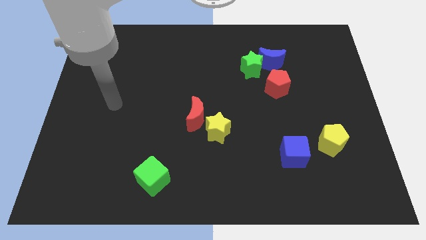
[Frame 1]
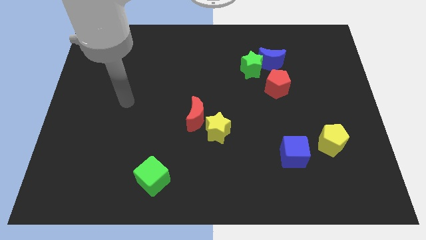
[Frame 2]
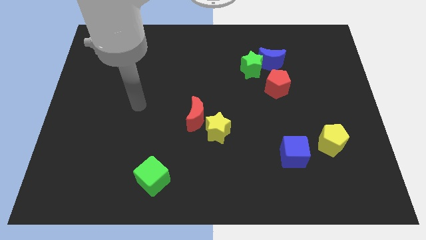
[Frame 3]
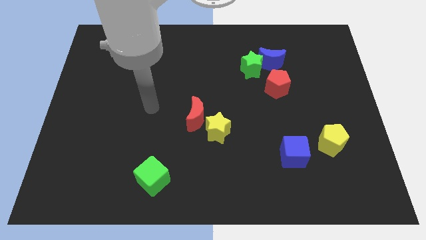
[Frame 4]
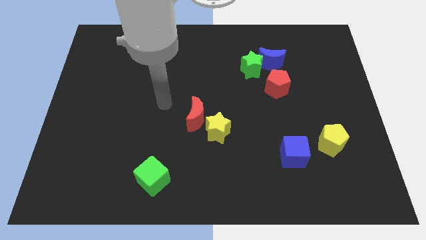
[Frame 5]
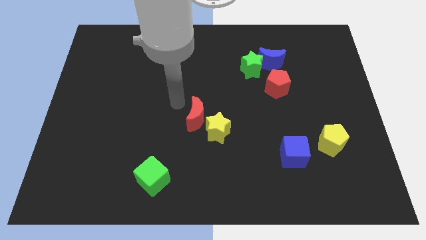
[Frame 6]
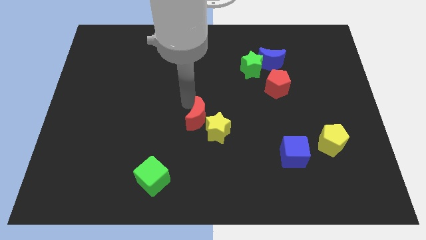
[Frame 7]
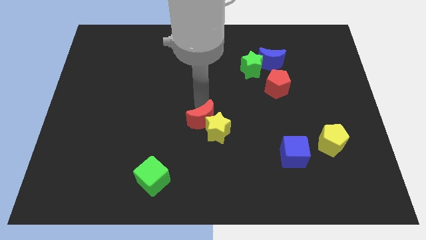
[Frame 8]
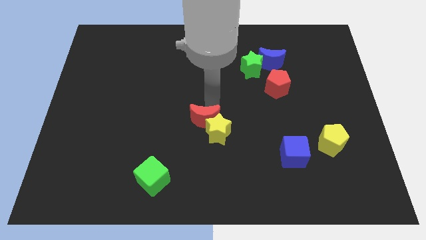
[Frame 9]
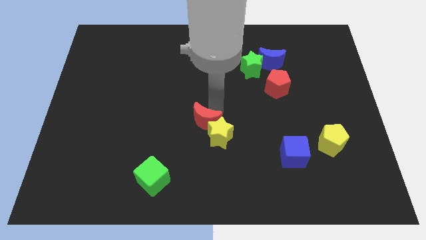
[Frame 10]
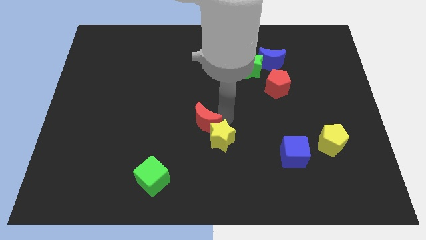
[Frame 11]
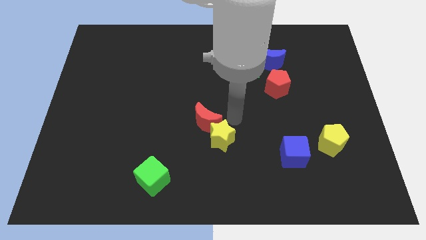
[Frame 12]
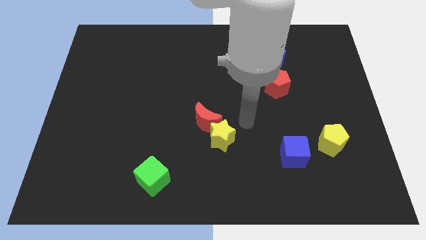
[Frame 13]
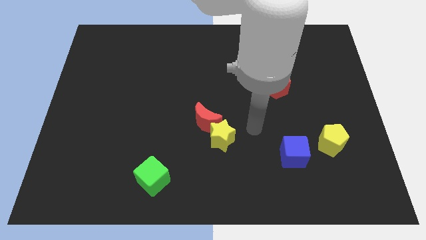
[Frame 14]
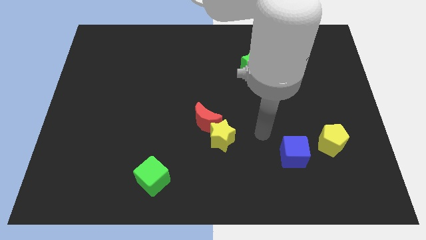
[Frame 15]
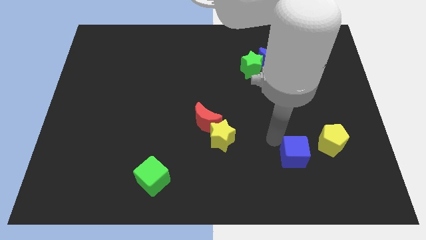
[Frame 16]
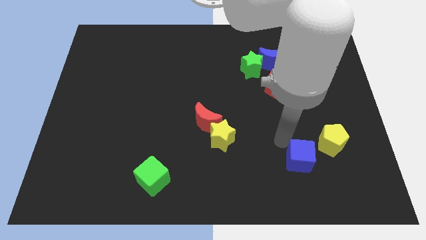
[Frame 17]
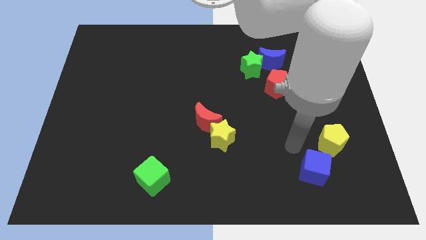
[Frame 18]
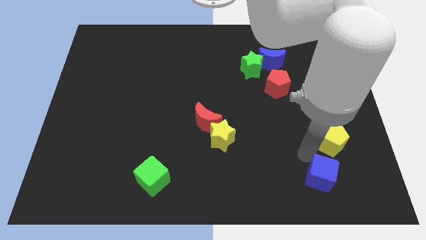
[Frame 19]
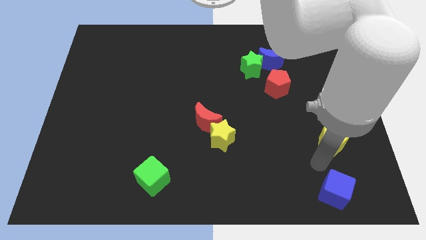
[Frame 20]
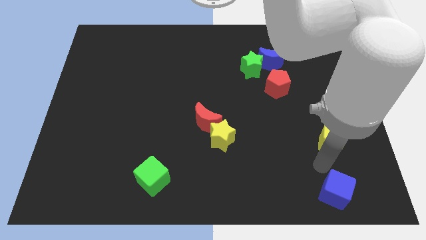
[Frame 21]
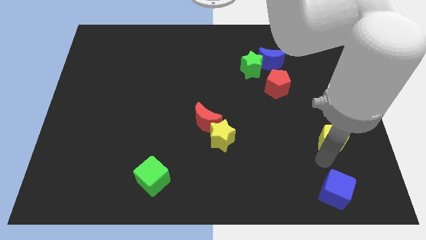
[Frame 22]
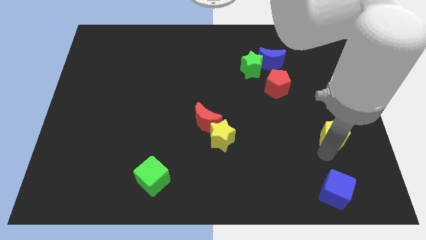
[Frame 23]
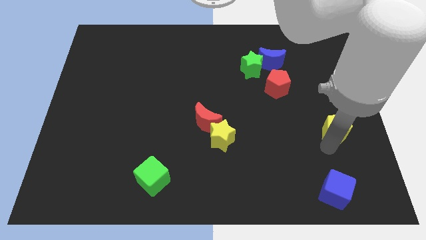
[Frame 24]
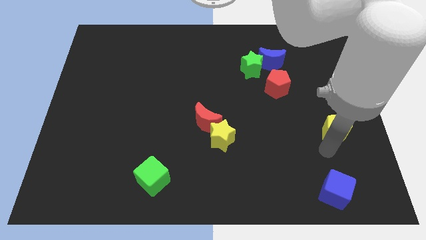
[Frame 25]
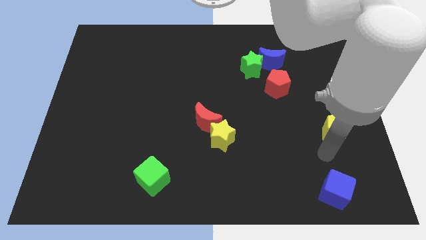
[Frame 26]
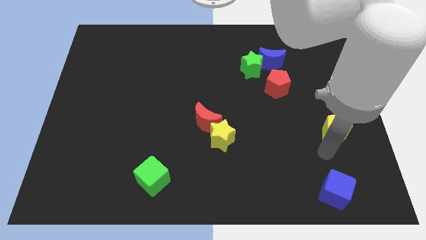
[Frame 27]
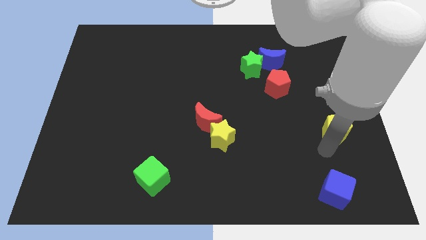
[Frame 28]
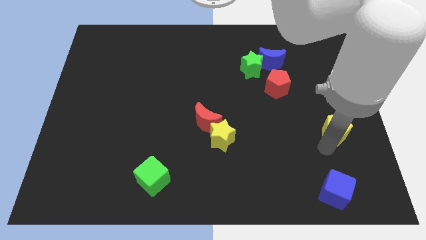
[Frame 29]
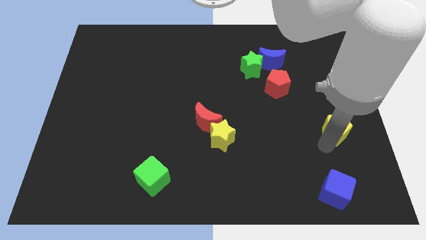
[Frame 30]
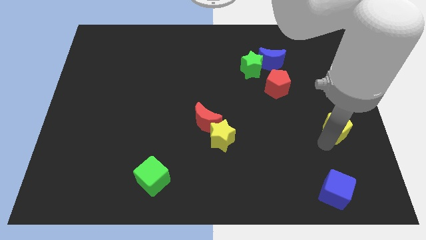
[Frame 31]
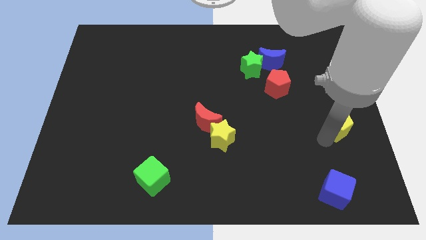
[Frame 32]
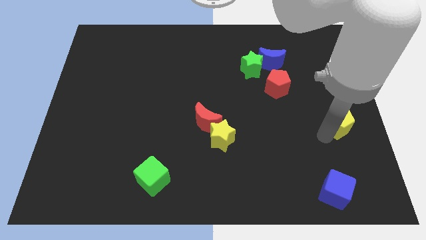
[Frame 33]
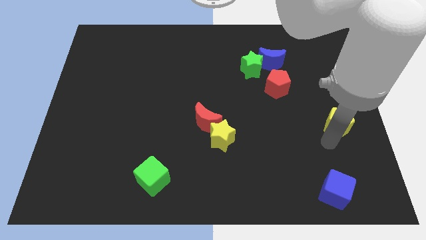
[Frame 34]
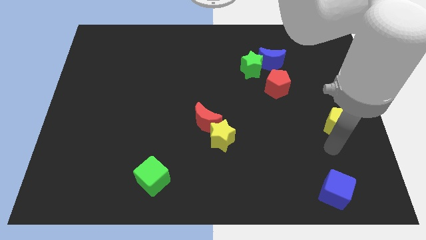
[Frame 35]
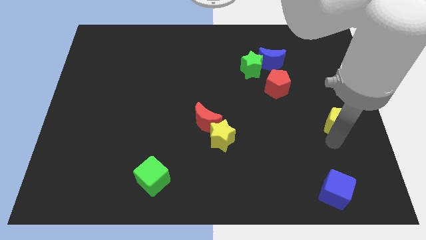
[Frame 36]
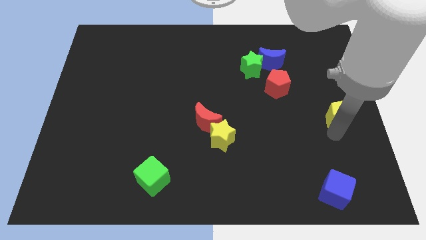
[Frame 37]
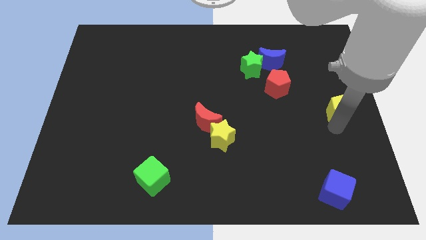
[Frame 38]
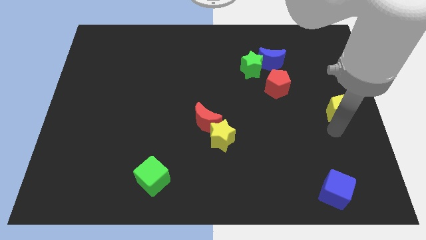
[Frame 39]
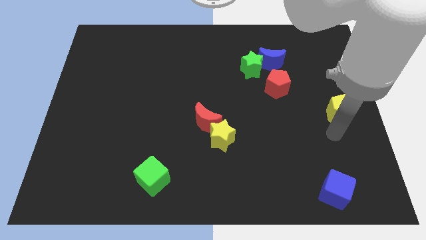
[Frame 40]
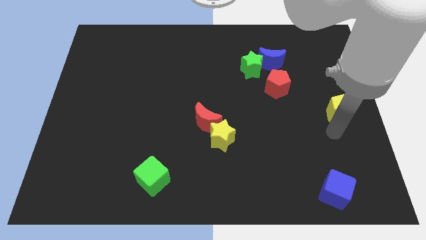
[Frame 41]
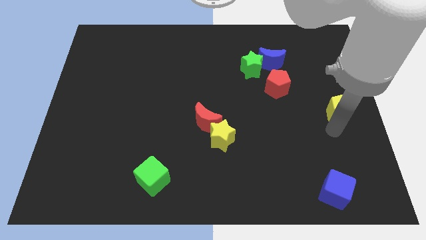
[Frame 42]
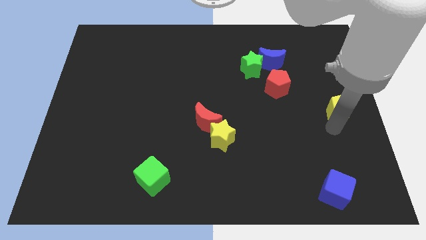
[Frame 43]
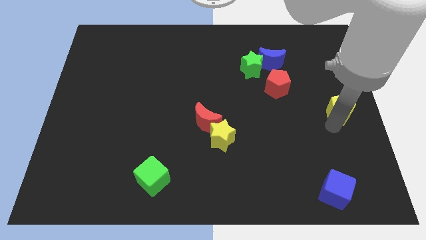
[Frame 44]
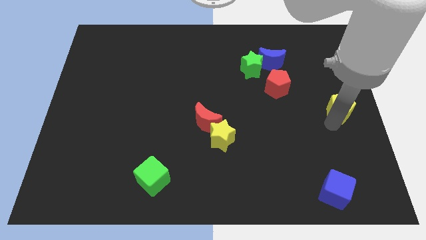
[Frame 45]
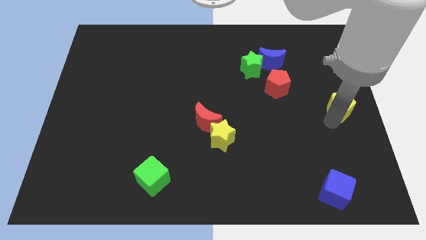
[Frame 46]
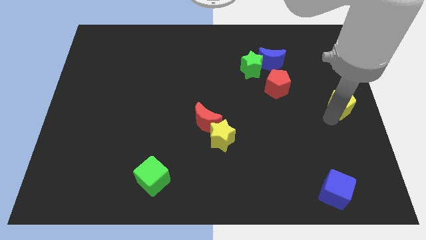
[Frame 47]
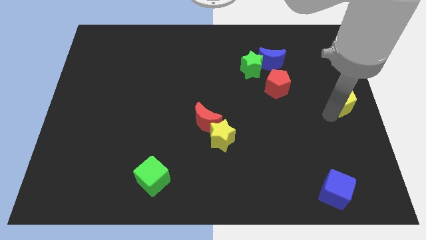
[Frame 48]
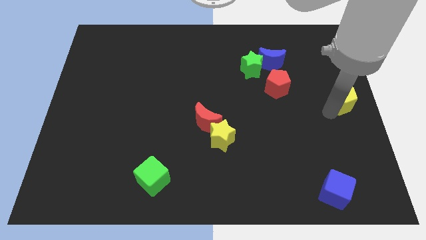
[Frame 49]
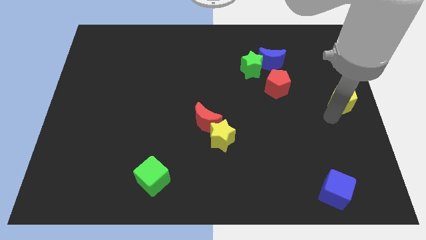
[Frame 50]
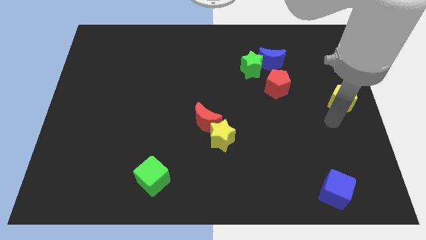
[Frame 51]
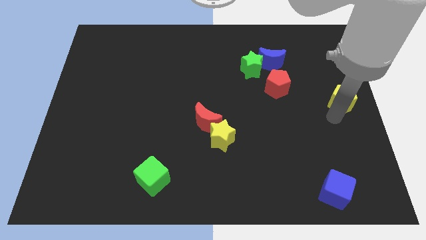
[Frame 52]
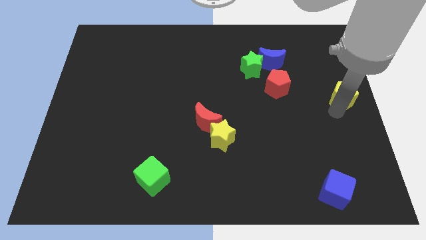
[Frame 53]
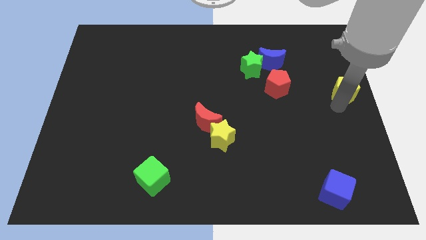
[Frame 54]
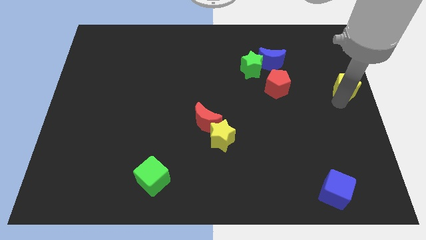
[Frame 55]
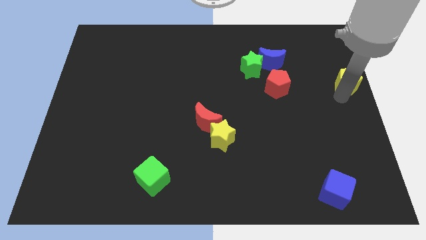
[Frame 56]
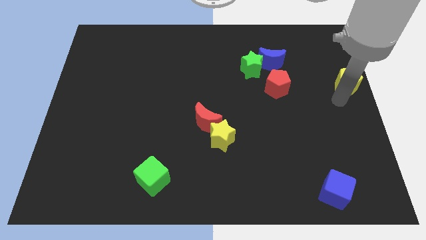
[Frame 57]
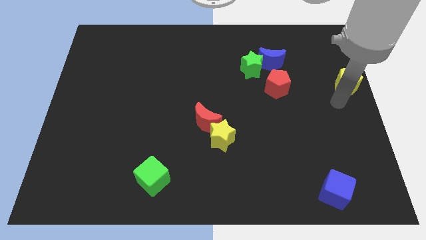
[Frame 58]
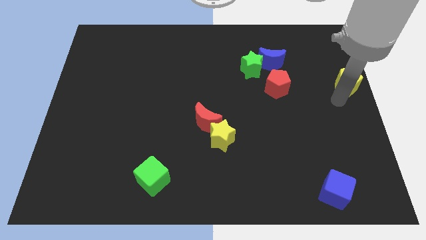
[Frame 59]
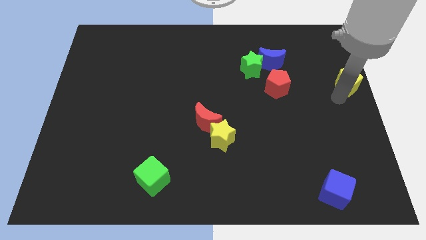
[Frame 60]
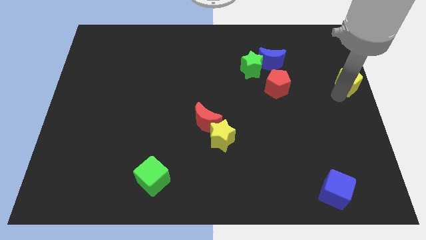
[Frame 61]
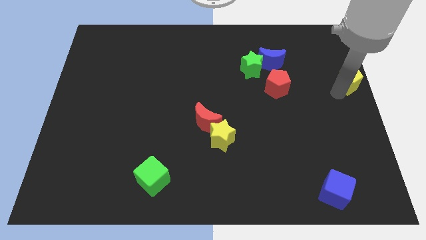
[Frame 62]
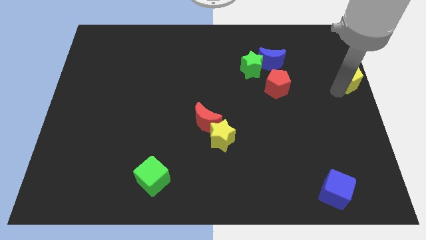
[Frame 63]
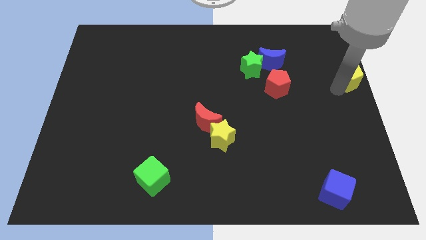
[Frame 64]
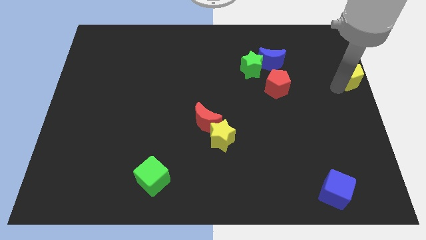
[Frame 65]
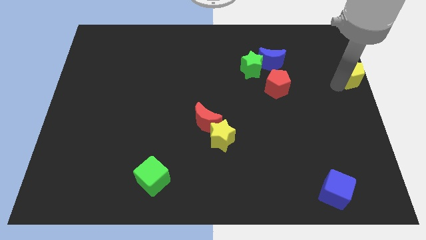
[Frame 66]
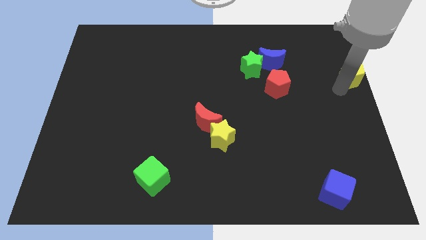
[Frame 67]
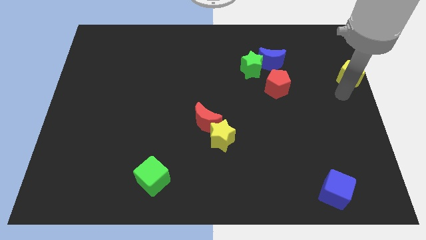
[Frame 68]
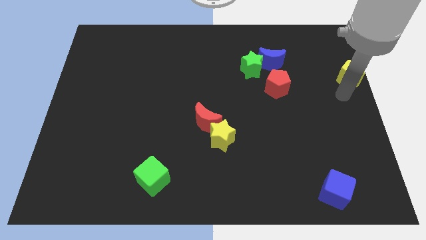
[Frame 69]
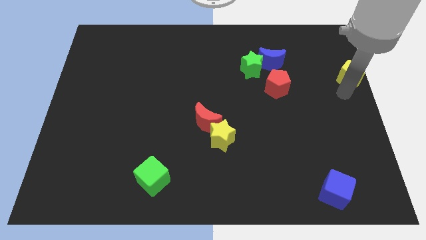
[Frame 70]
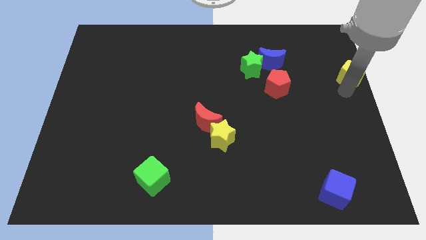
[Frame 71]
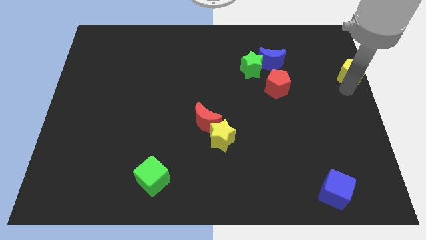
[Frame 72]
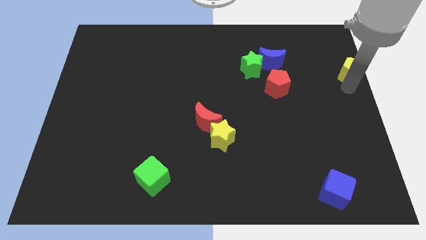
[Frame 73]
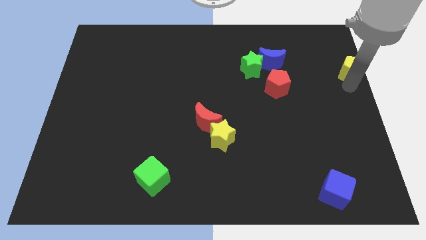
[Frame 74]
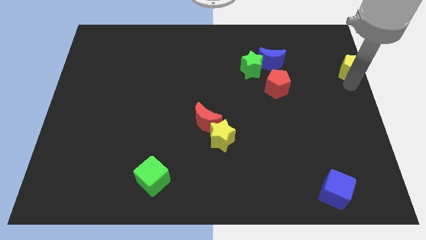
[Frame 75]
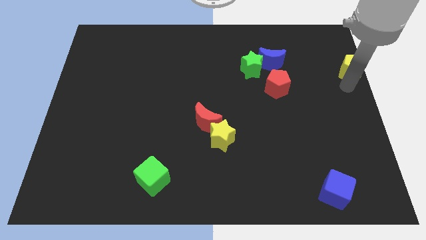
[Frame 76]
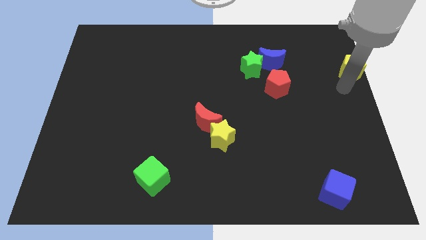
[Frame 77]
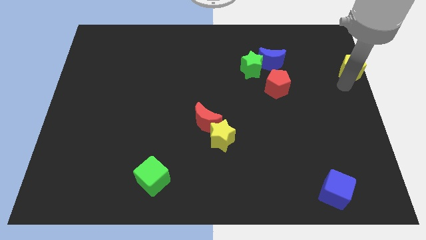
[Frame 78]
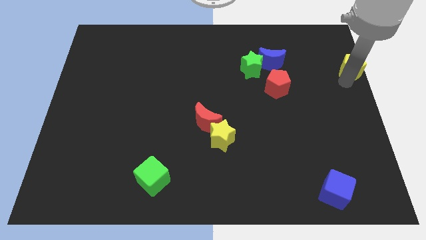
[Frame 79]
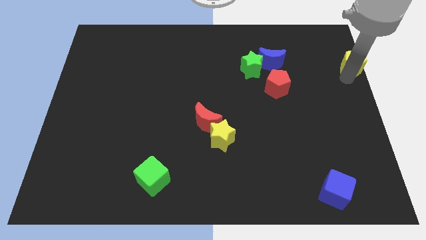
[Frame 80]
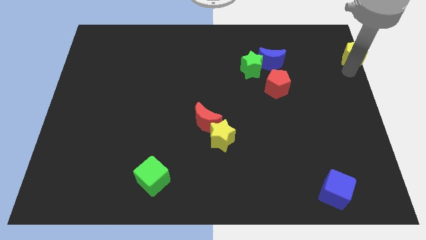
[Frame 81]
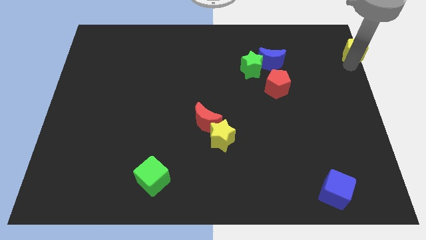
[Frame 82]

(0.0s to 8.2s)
move the yellow pentagon to the upper right corner
